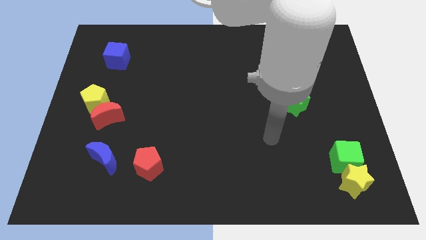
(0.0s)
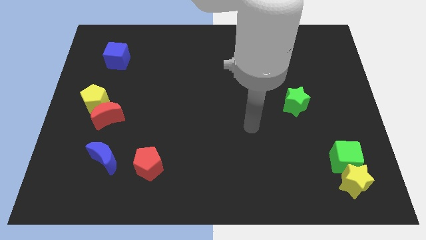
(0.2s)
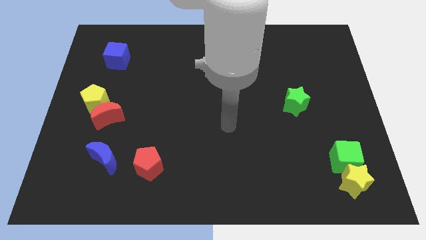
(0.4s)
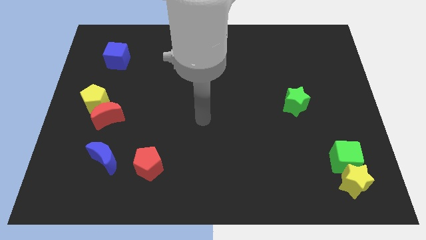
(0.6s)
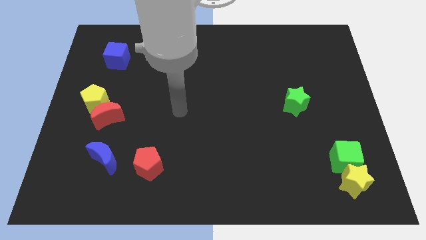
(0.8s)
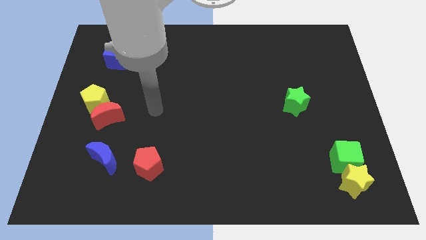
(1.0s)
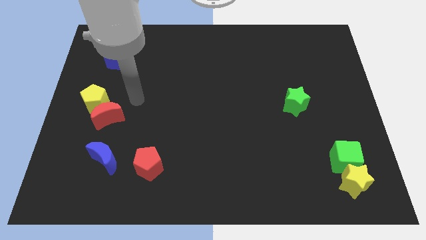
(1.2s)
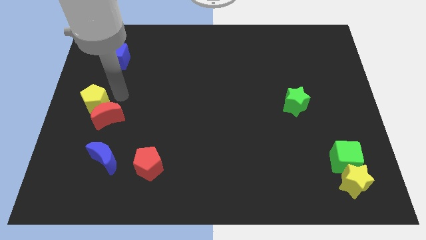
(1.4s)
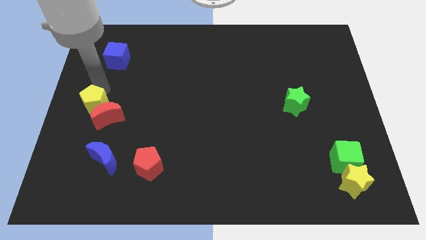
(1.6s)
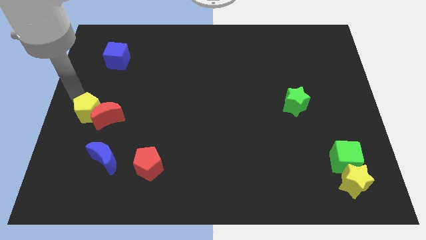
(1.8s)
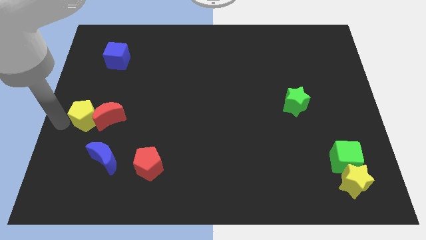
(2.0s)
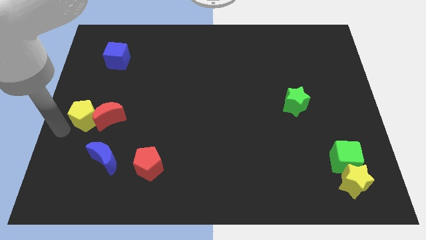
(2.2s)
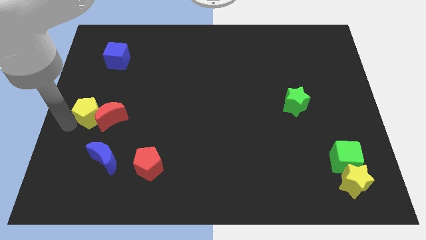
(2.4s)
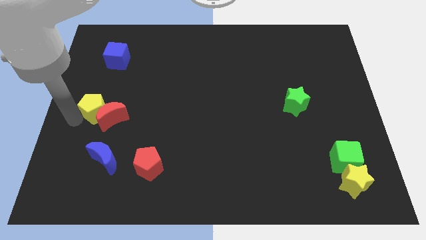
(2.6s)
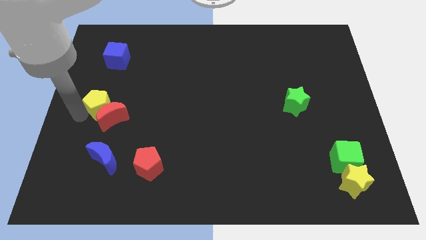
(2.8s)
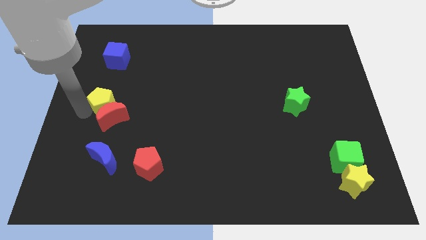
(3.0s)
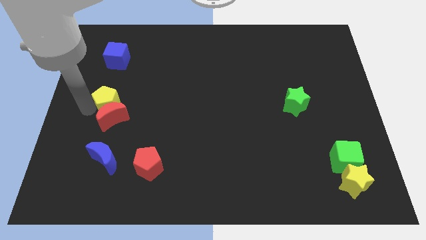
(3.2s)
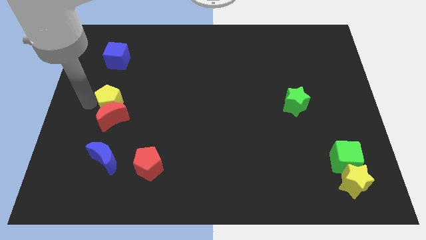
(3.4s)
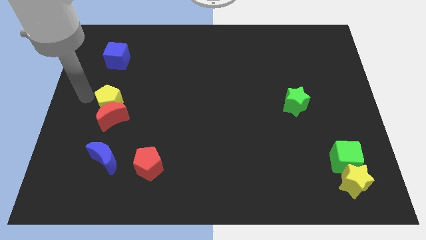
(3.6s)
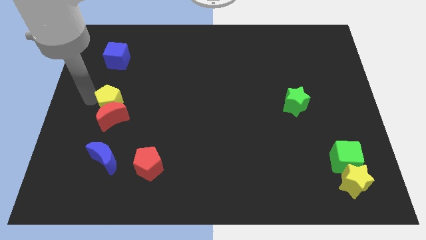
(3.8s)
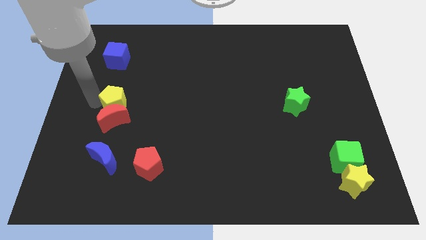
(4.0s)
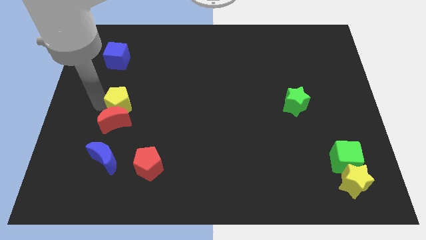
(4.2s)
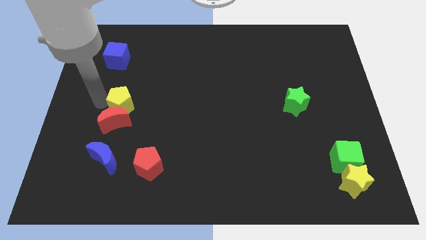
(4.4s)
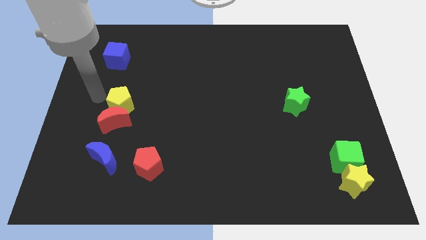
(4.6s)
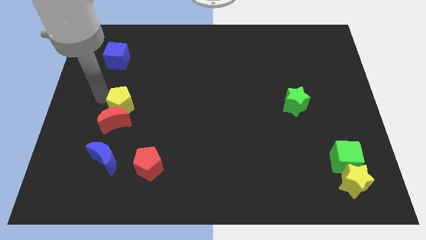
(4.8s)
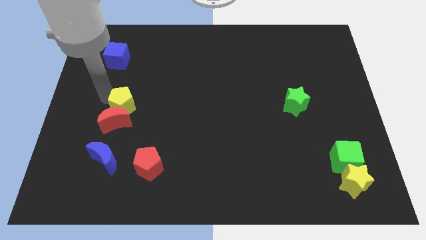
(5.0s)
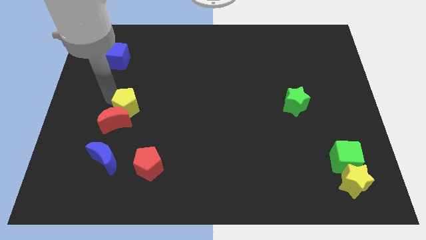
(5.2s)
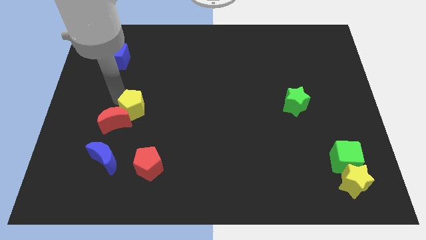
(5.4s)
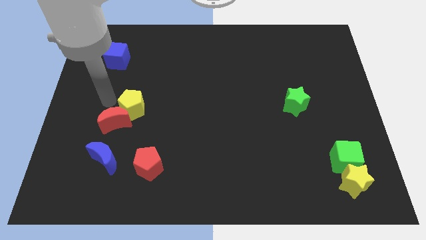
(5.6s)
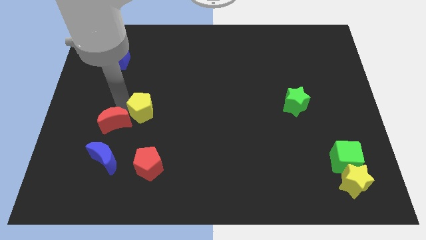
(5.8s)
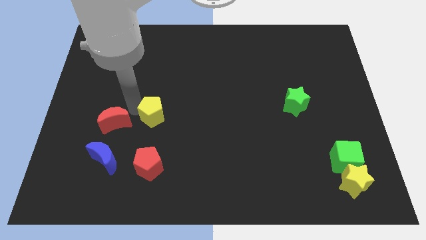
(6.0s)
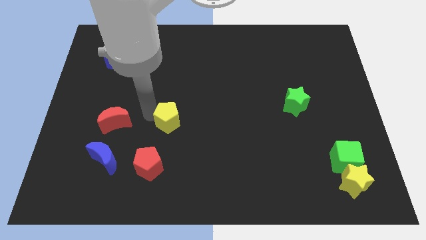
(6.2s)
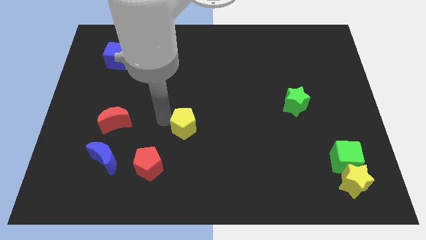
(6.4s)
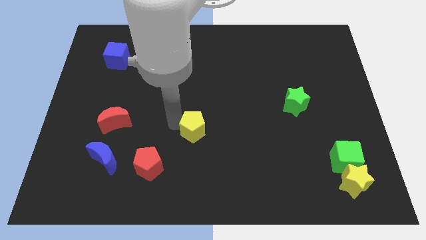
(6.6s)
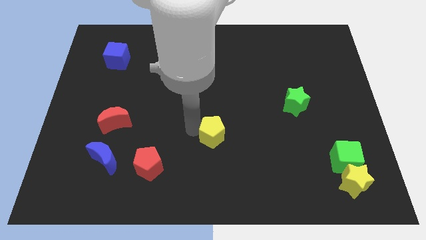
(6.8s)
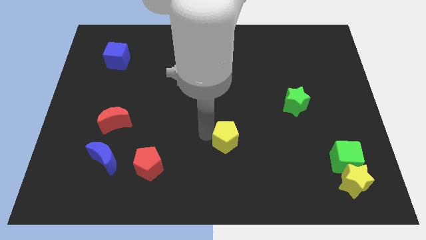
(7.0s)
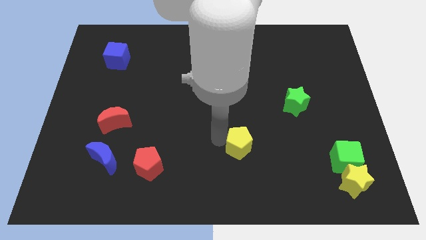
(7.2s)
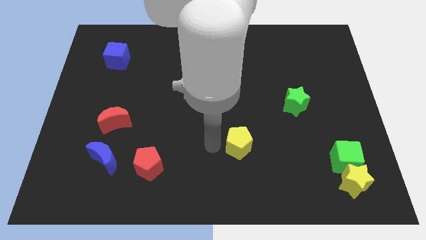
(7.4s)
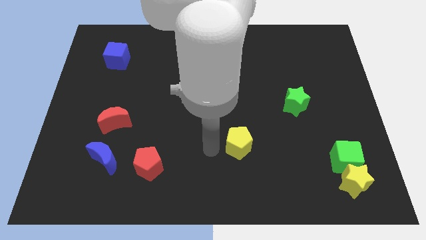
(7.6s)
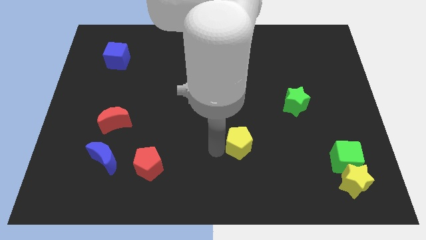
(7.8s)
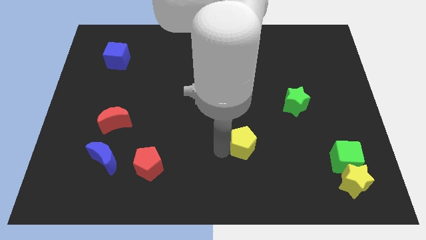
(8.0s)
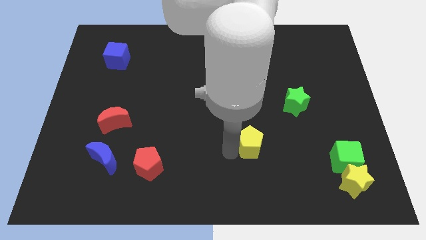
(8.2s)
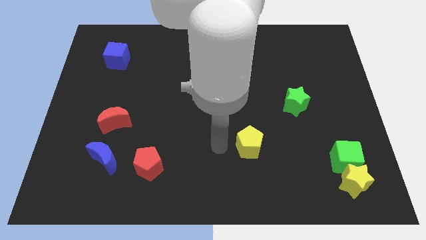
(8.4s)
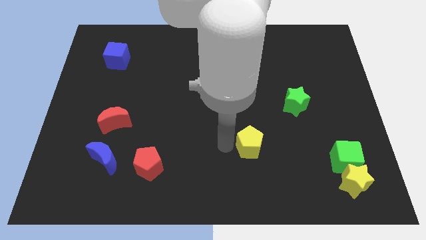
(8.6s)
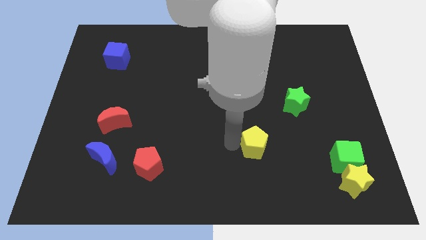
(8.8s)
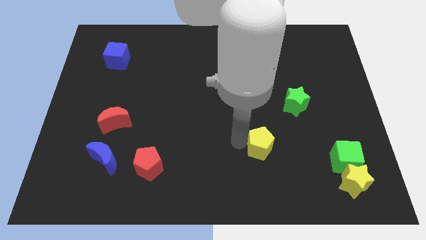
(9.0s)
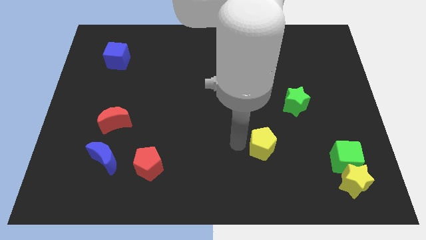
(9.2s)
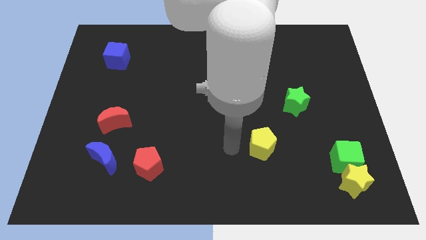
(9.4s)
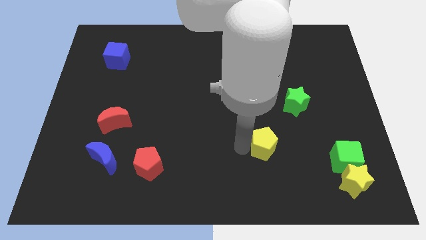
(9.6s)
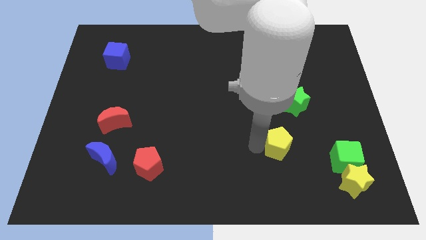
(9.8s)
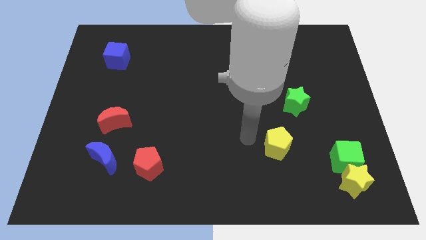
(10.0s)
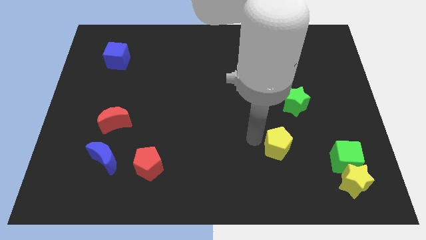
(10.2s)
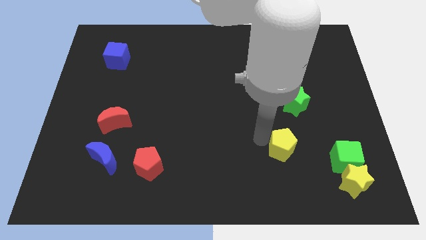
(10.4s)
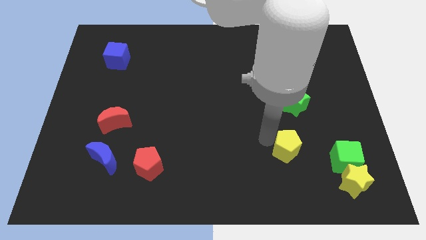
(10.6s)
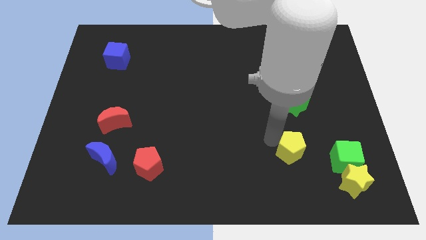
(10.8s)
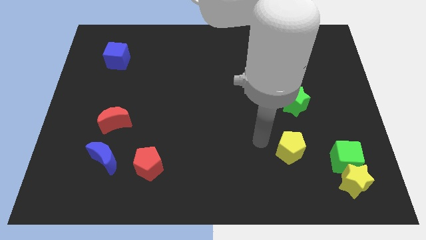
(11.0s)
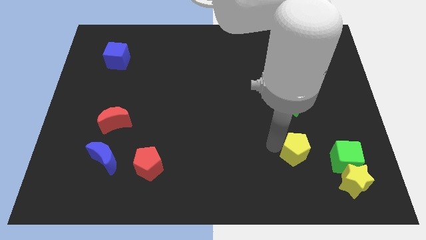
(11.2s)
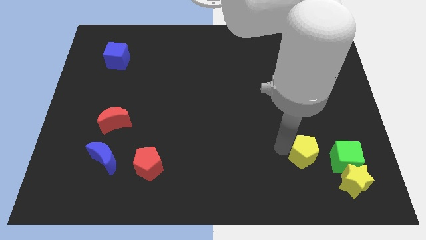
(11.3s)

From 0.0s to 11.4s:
put the yellow pentagon to the top left of the yellow star

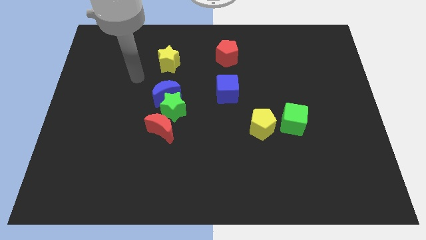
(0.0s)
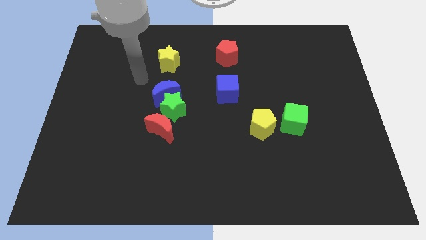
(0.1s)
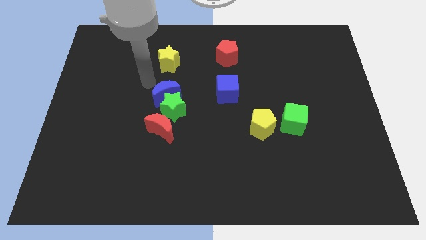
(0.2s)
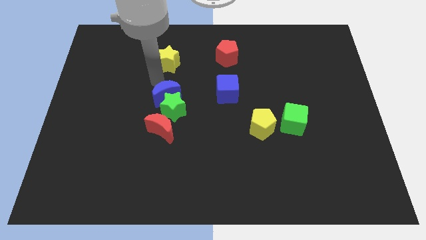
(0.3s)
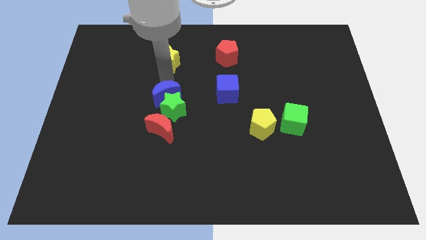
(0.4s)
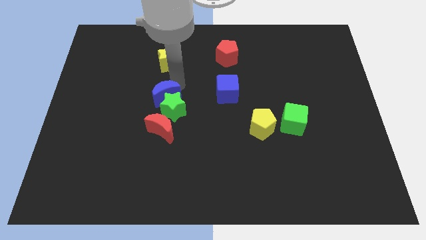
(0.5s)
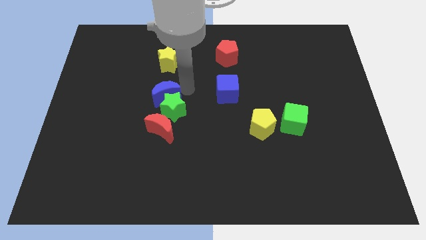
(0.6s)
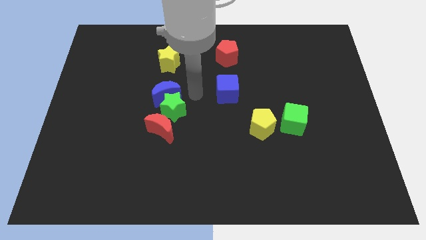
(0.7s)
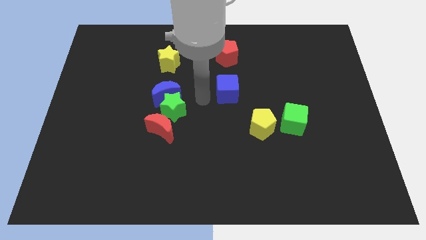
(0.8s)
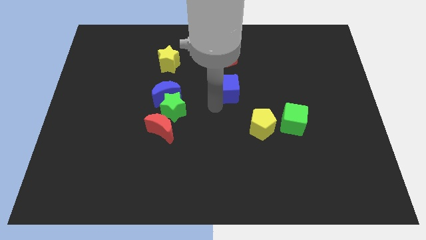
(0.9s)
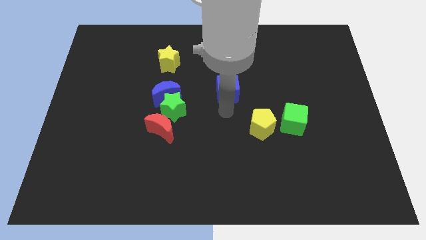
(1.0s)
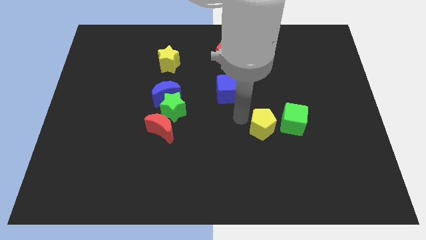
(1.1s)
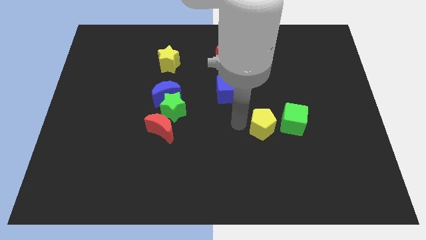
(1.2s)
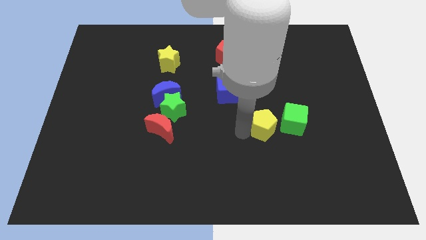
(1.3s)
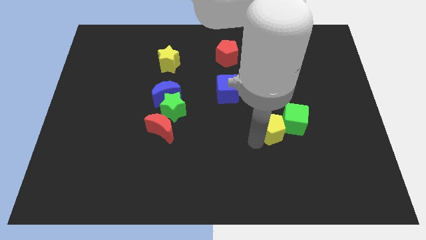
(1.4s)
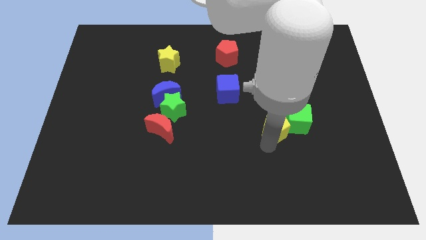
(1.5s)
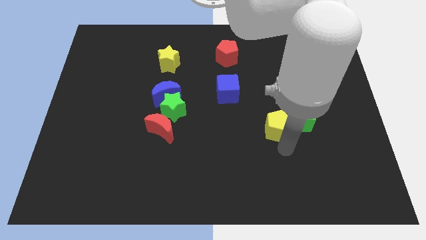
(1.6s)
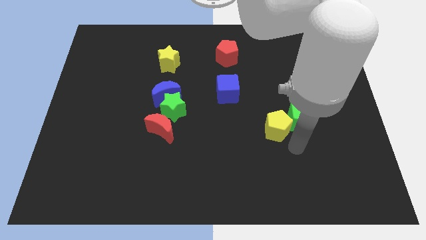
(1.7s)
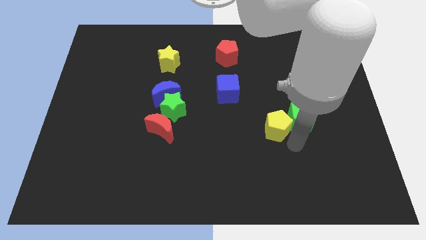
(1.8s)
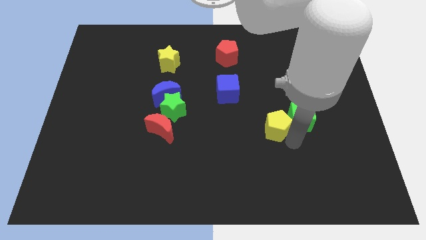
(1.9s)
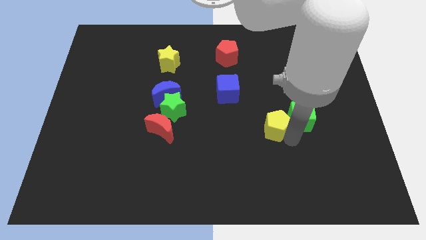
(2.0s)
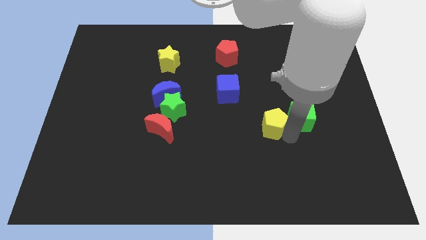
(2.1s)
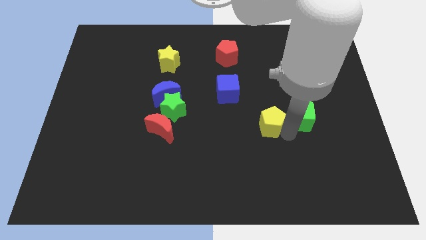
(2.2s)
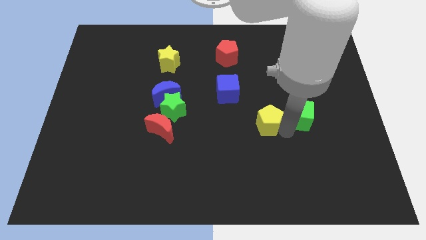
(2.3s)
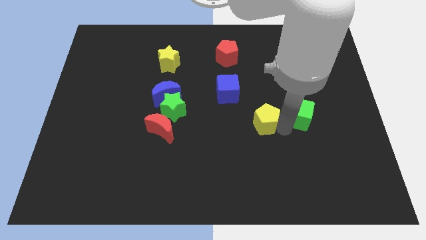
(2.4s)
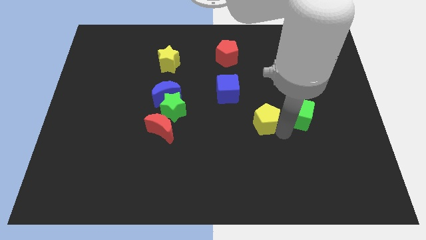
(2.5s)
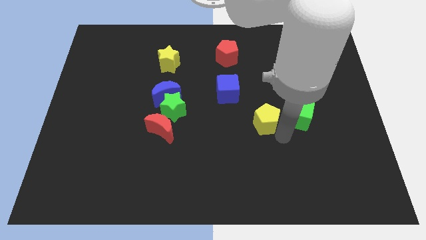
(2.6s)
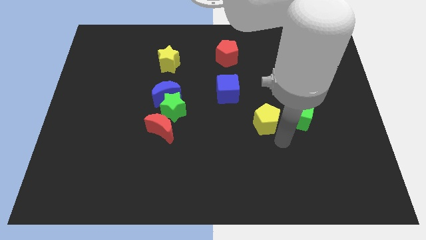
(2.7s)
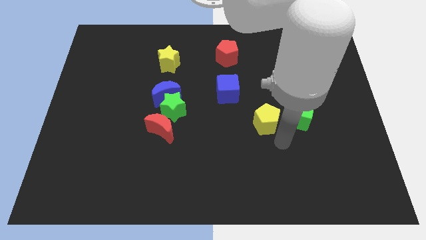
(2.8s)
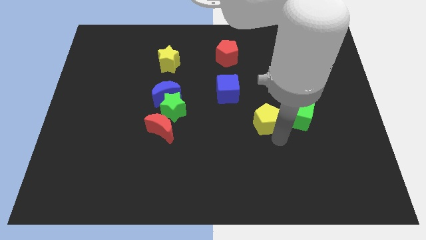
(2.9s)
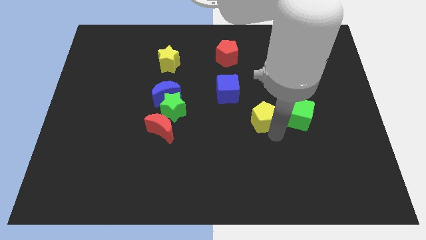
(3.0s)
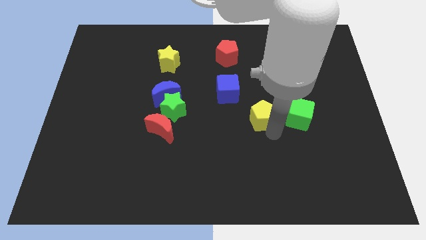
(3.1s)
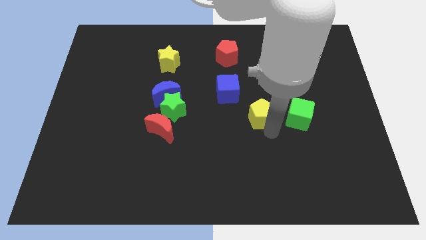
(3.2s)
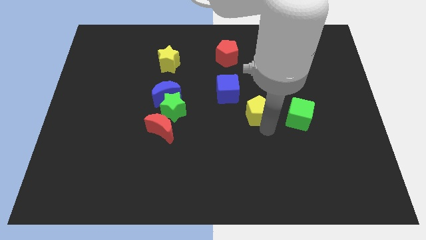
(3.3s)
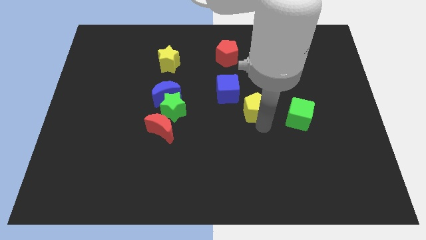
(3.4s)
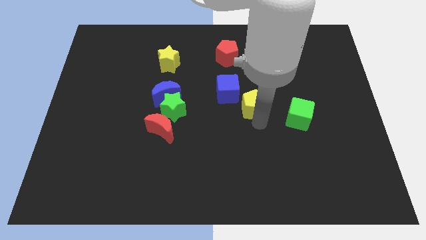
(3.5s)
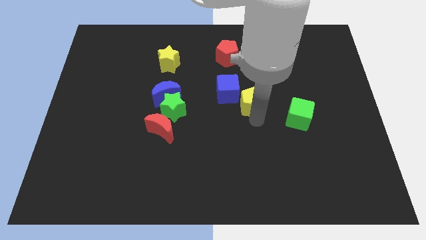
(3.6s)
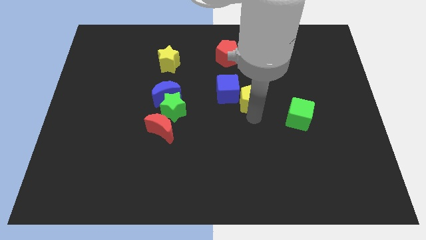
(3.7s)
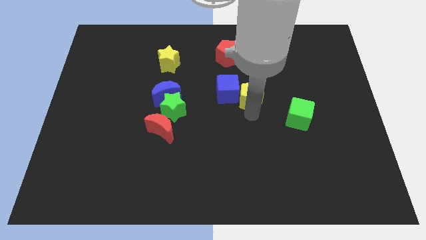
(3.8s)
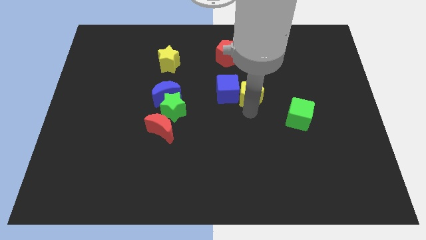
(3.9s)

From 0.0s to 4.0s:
put the yellow pentagon diagonally up and to the right of the blue cube
